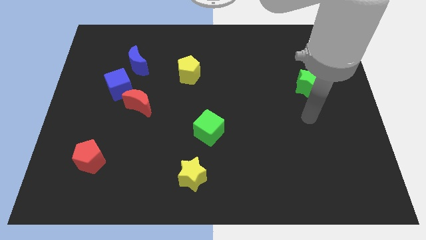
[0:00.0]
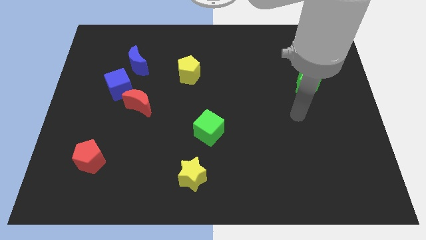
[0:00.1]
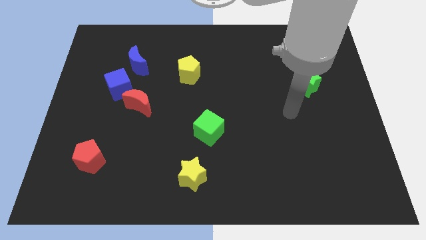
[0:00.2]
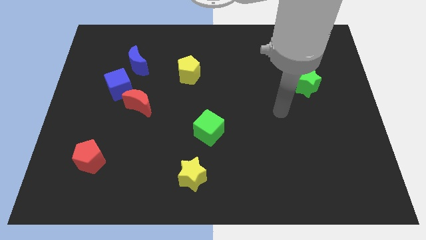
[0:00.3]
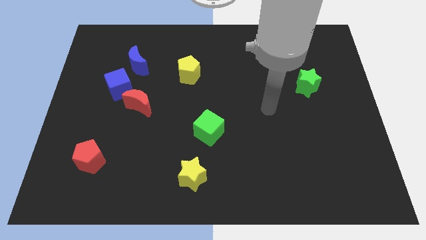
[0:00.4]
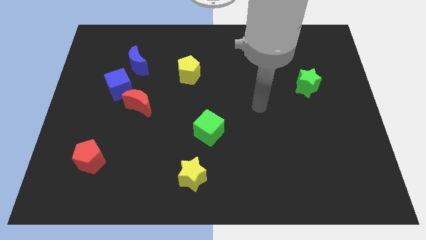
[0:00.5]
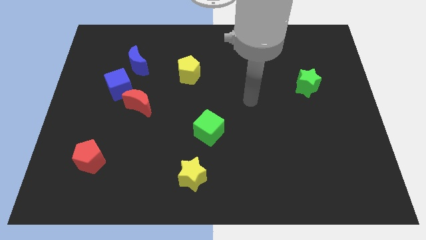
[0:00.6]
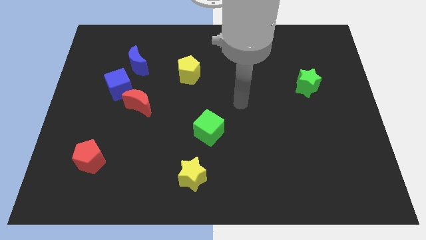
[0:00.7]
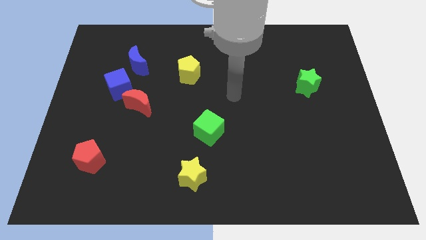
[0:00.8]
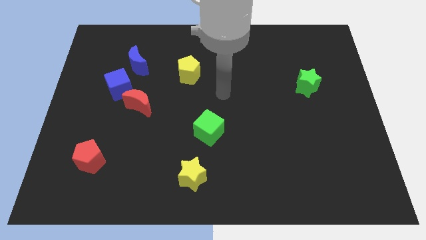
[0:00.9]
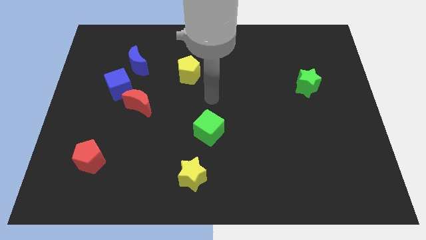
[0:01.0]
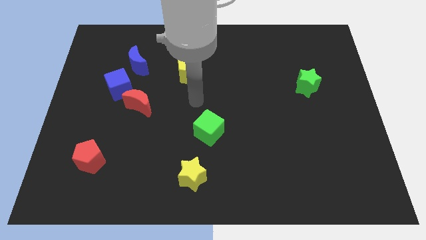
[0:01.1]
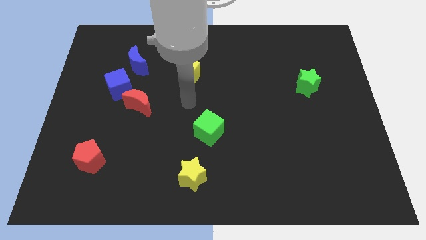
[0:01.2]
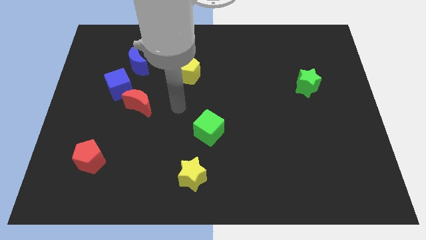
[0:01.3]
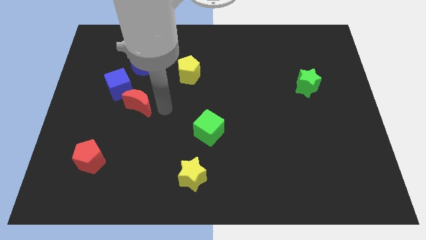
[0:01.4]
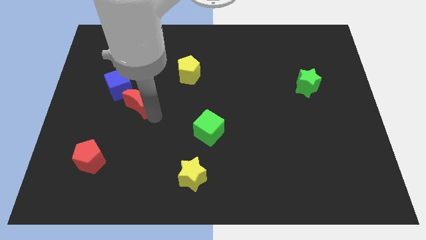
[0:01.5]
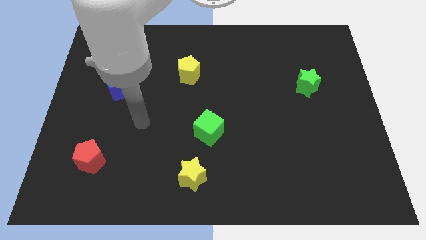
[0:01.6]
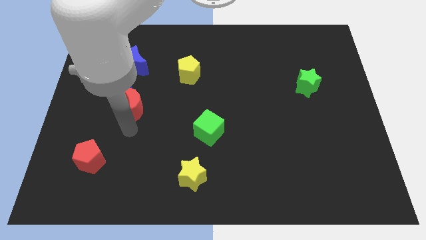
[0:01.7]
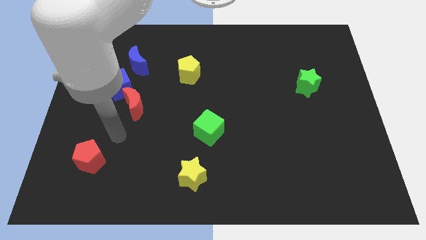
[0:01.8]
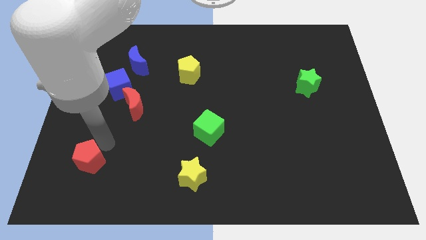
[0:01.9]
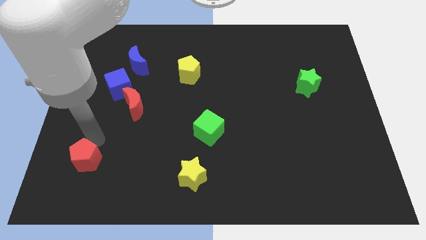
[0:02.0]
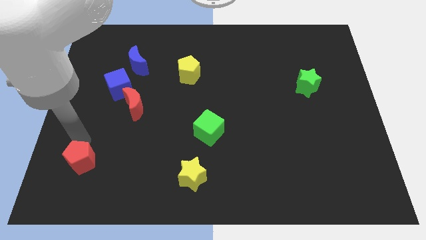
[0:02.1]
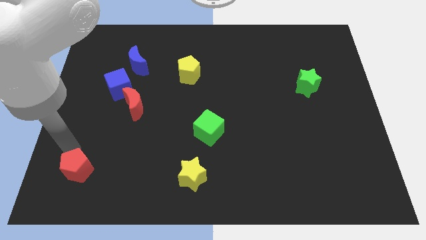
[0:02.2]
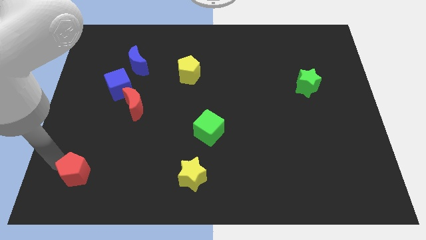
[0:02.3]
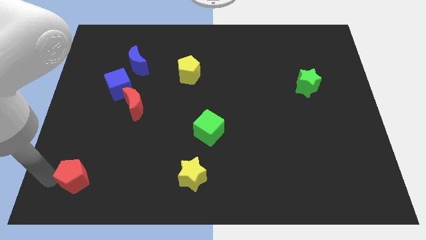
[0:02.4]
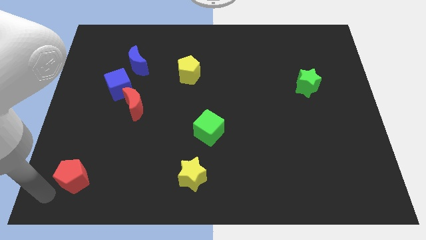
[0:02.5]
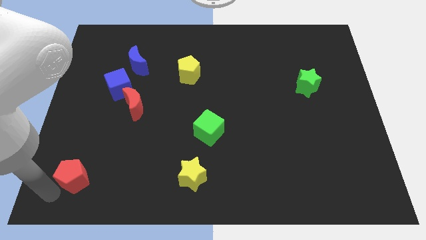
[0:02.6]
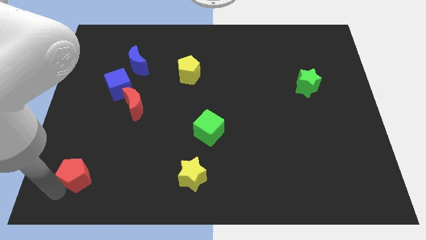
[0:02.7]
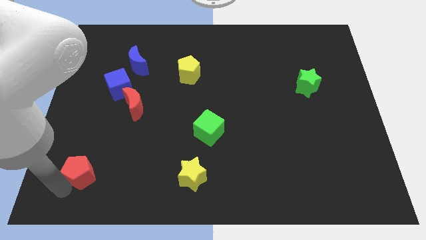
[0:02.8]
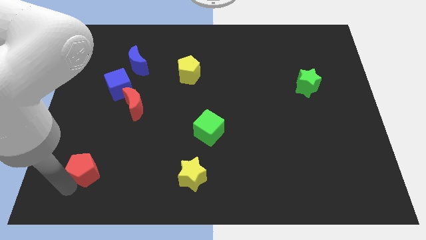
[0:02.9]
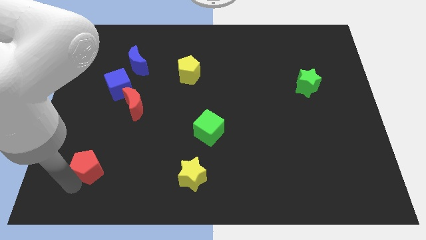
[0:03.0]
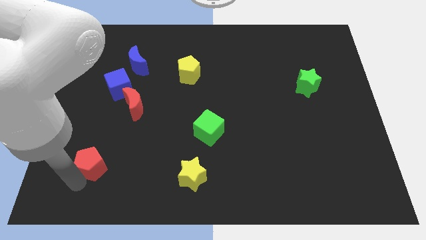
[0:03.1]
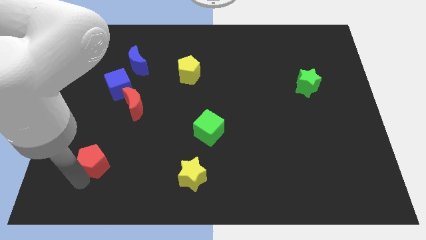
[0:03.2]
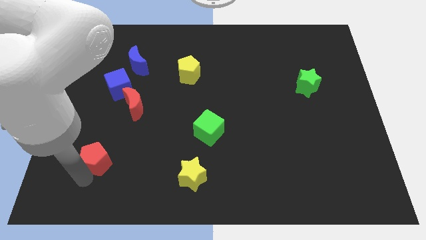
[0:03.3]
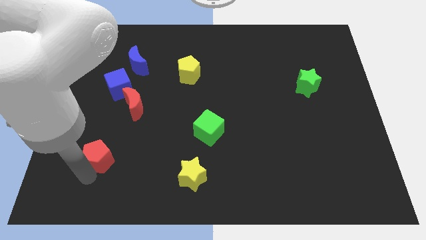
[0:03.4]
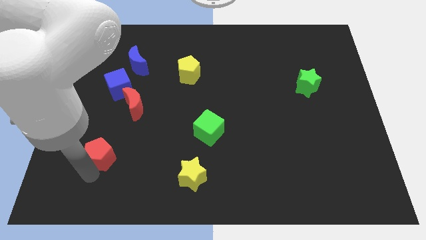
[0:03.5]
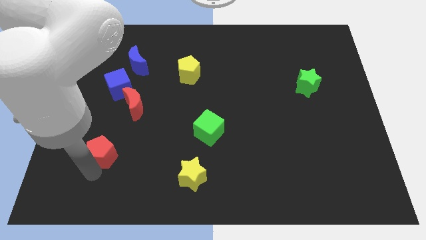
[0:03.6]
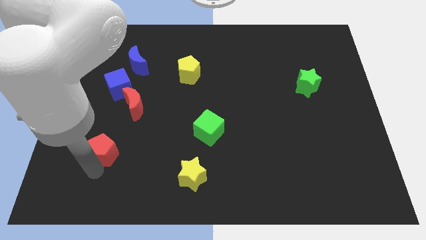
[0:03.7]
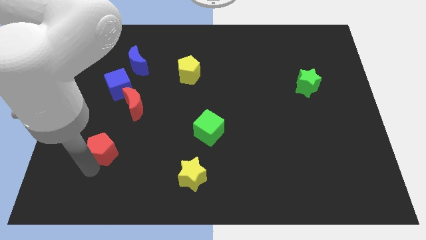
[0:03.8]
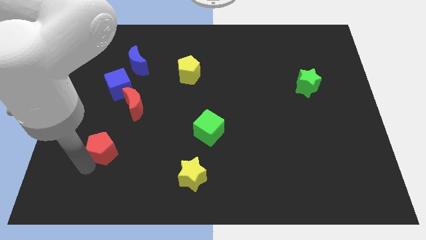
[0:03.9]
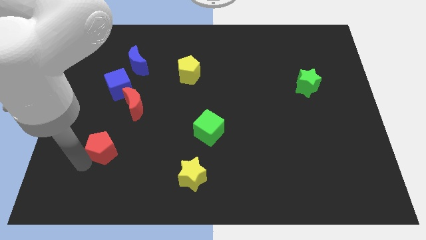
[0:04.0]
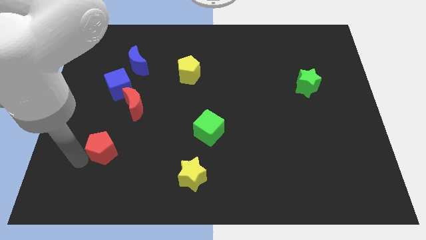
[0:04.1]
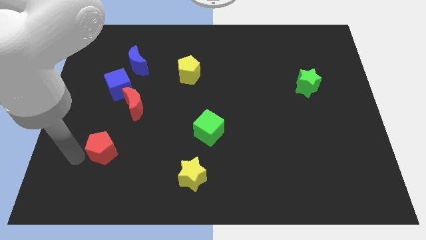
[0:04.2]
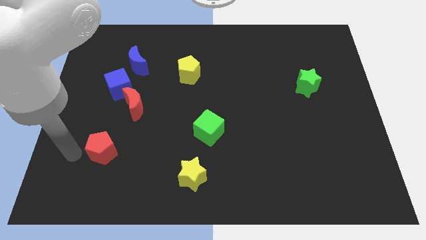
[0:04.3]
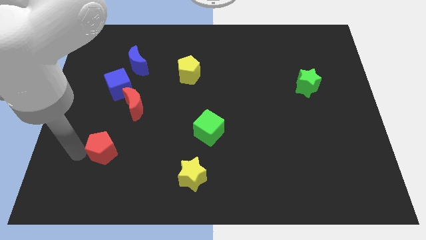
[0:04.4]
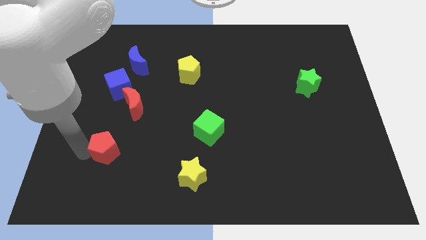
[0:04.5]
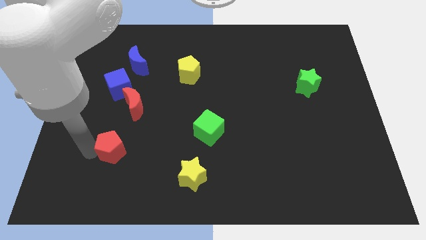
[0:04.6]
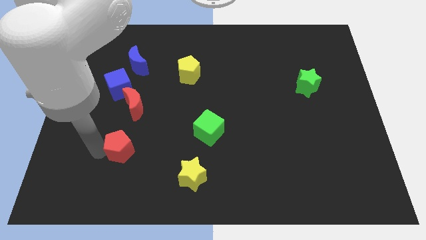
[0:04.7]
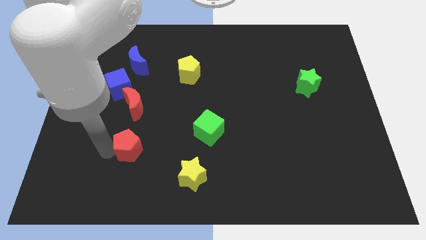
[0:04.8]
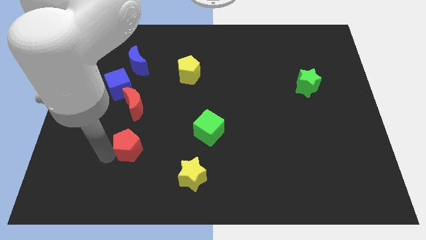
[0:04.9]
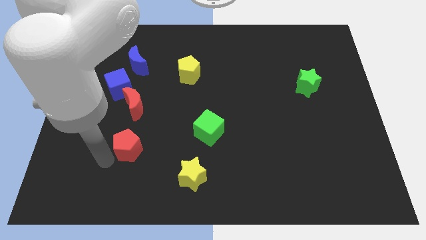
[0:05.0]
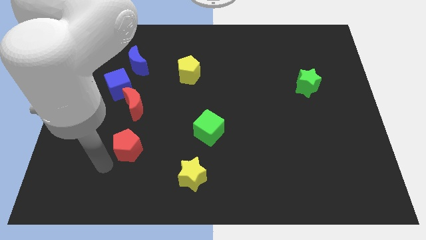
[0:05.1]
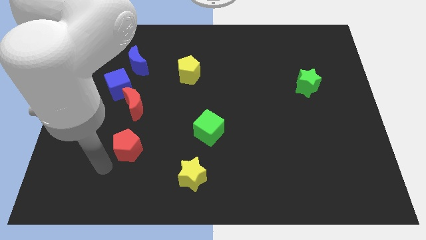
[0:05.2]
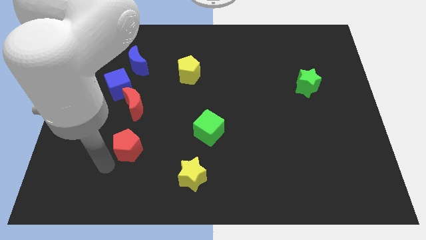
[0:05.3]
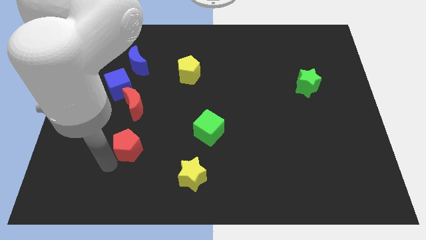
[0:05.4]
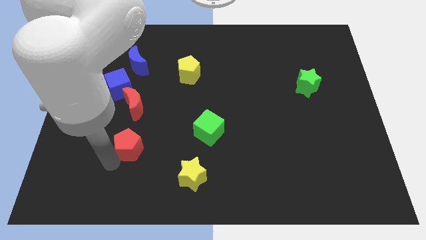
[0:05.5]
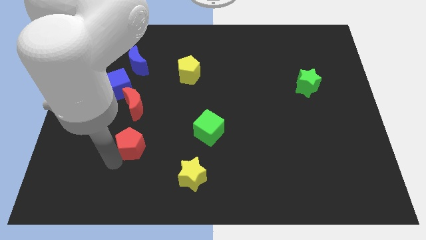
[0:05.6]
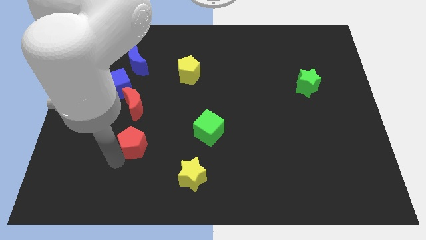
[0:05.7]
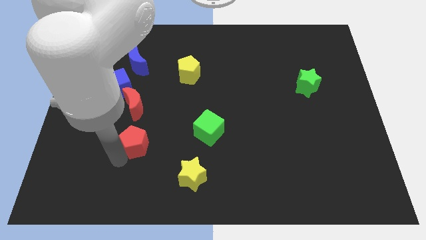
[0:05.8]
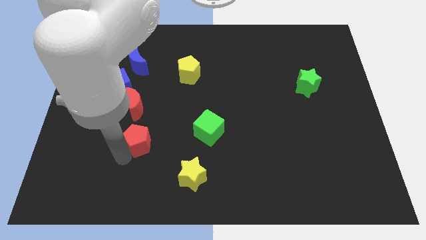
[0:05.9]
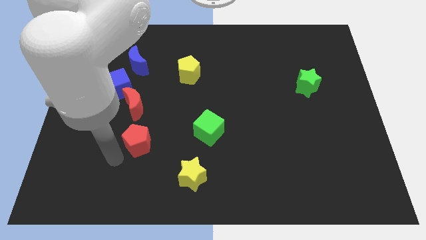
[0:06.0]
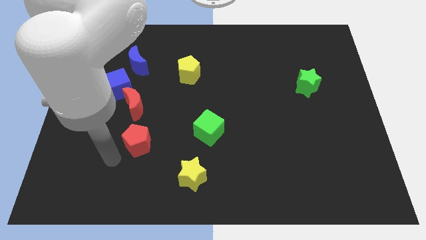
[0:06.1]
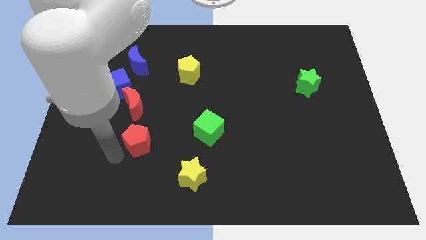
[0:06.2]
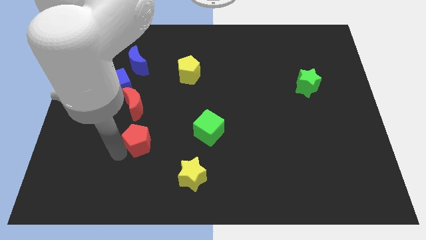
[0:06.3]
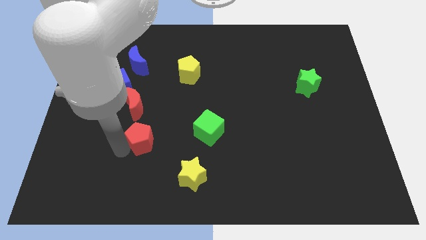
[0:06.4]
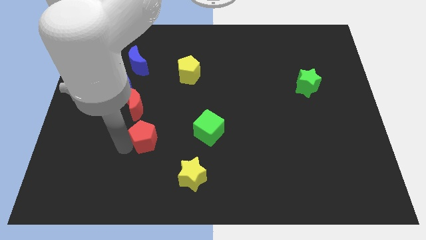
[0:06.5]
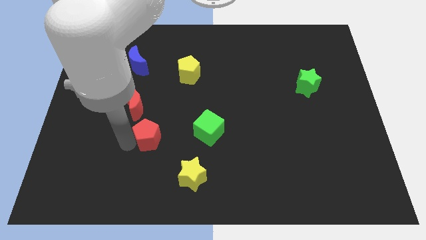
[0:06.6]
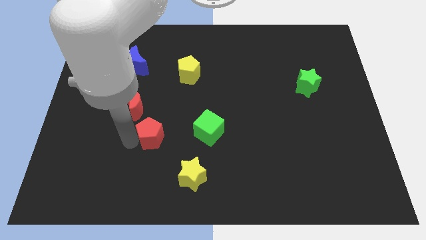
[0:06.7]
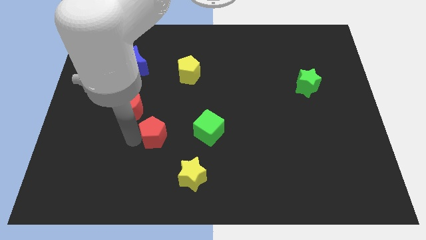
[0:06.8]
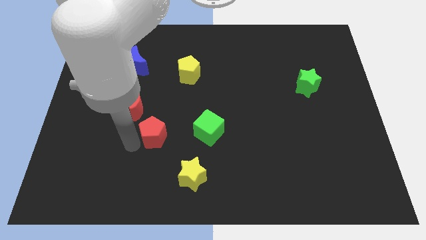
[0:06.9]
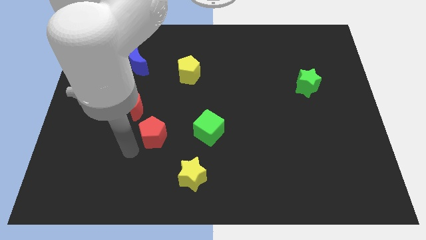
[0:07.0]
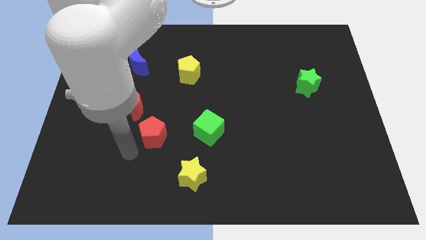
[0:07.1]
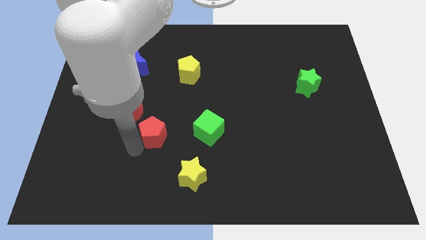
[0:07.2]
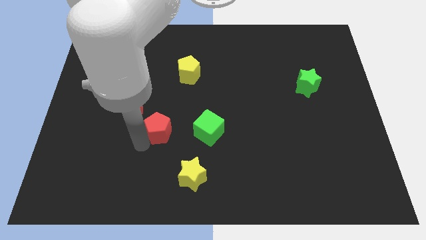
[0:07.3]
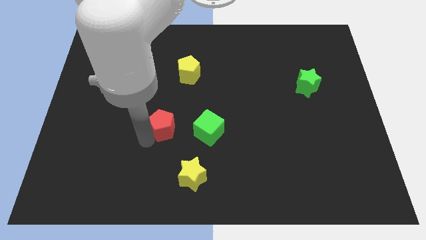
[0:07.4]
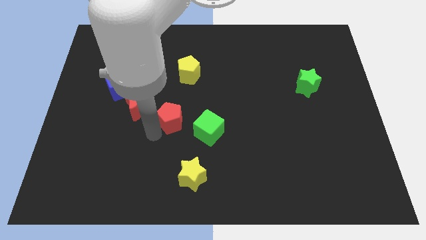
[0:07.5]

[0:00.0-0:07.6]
push the red pentagon to the middle
